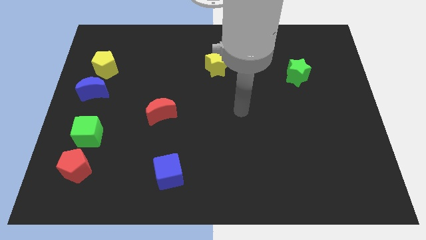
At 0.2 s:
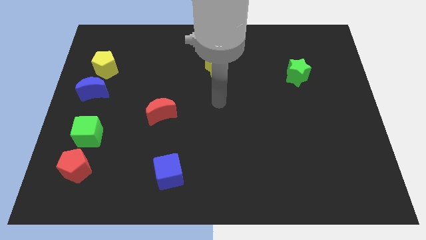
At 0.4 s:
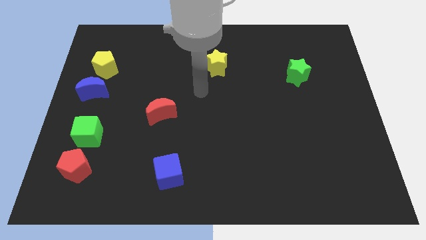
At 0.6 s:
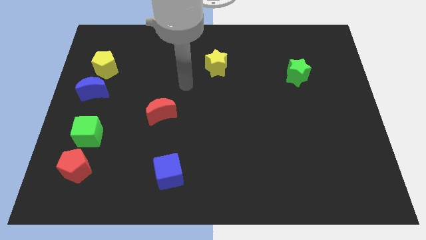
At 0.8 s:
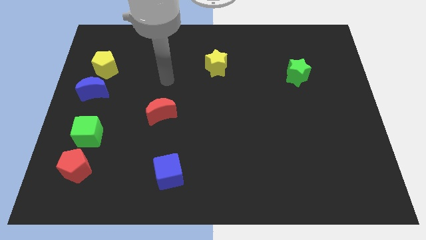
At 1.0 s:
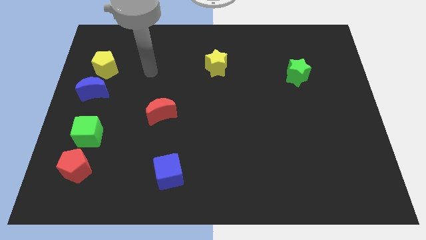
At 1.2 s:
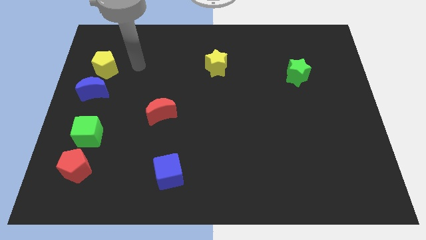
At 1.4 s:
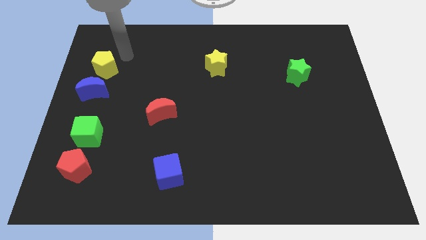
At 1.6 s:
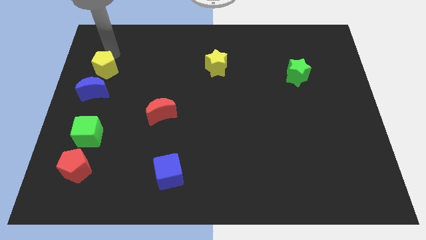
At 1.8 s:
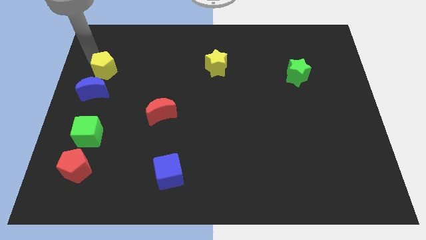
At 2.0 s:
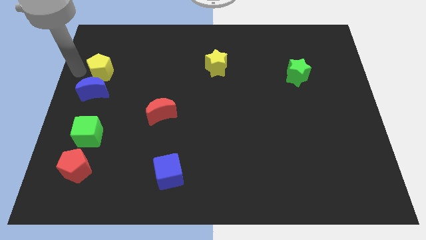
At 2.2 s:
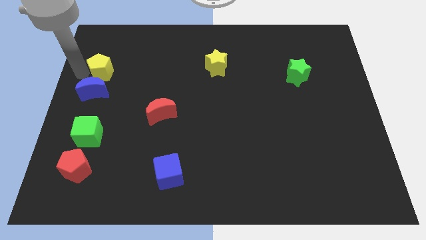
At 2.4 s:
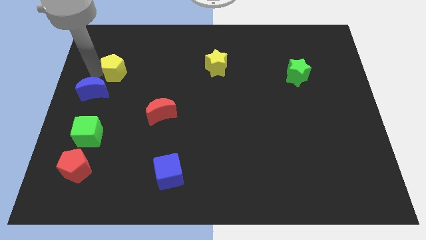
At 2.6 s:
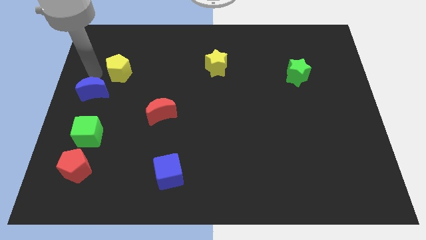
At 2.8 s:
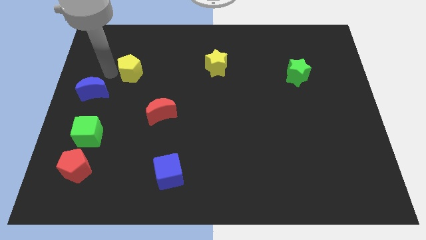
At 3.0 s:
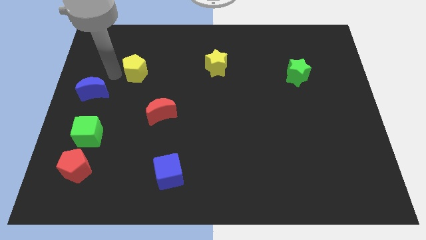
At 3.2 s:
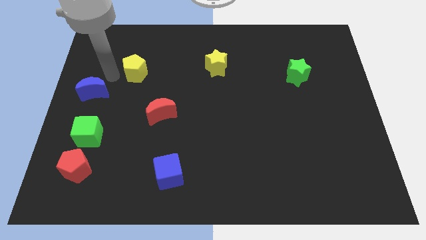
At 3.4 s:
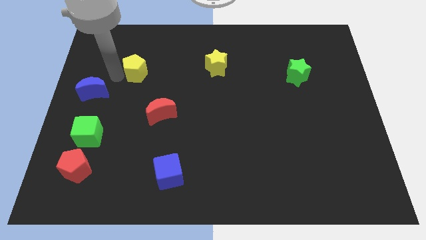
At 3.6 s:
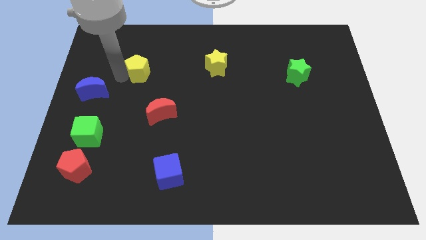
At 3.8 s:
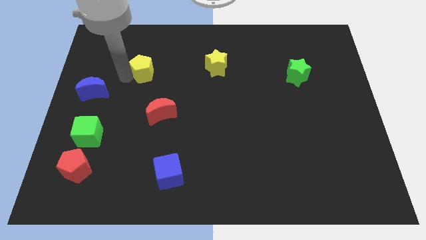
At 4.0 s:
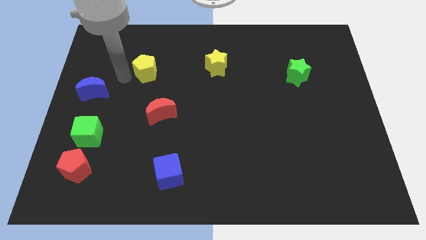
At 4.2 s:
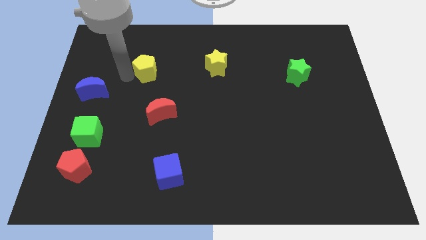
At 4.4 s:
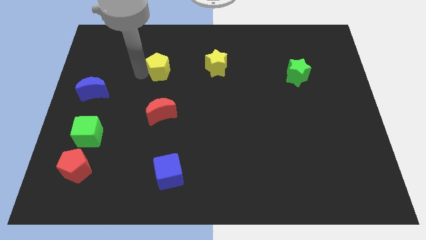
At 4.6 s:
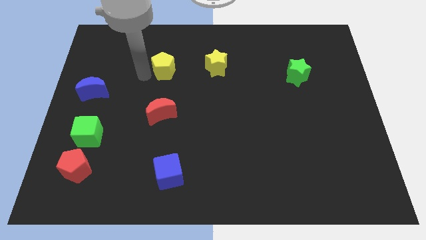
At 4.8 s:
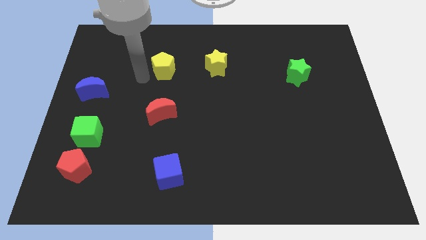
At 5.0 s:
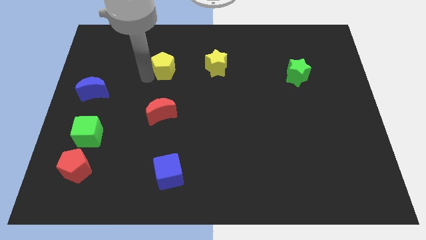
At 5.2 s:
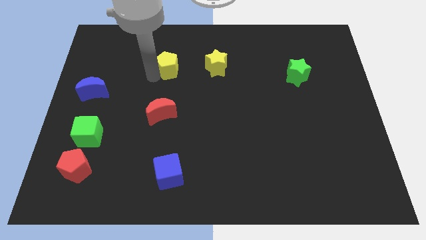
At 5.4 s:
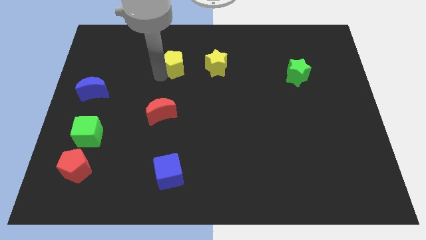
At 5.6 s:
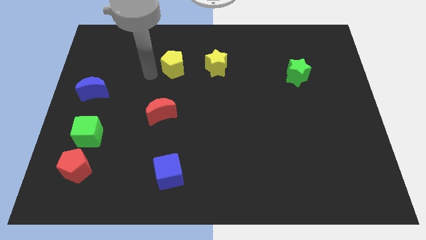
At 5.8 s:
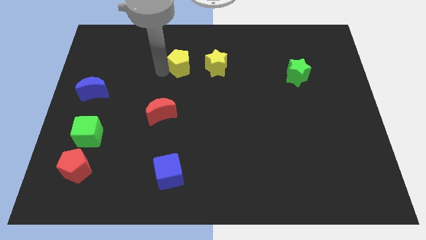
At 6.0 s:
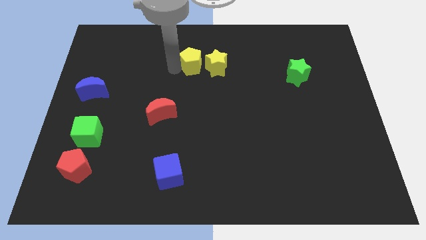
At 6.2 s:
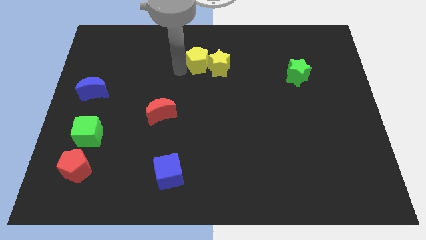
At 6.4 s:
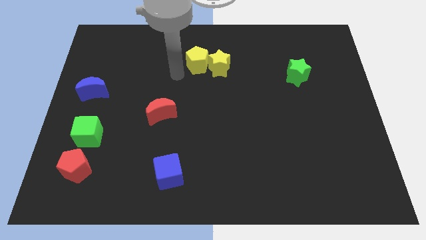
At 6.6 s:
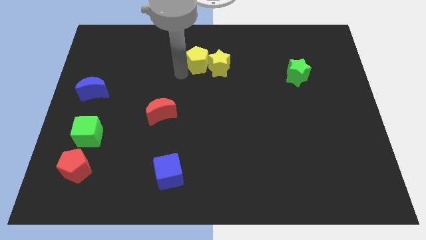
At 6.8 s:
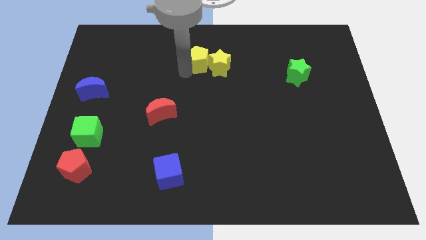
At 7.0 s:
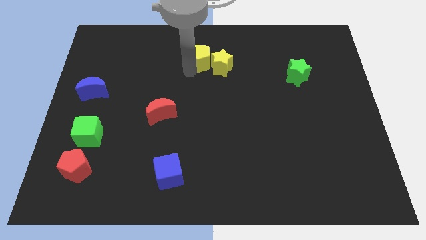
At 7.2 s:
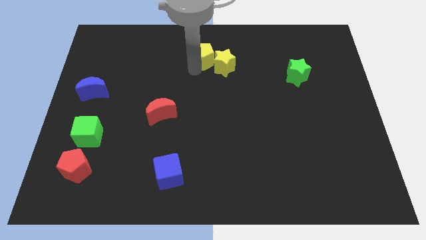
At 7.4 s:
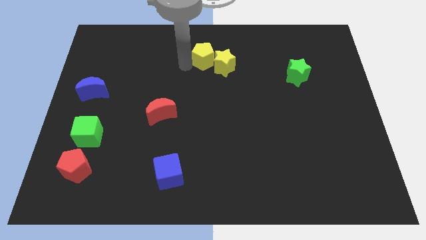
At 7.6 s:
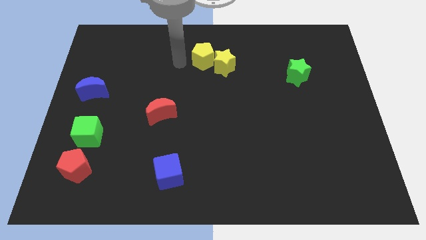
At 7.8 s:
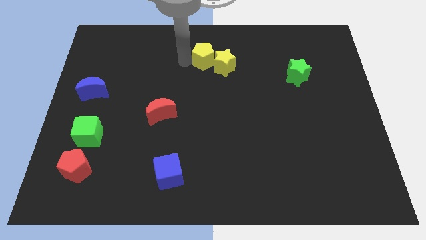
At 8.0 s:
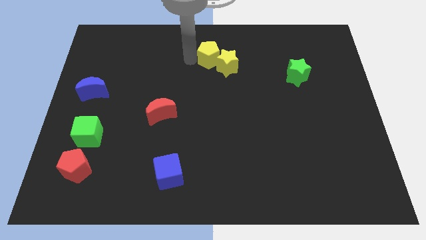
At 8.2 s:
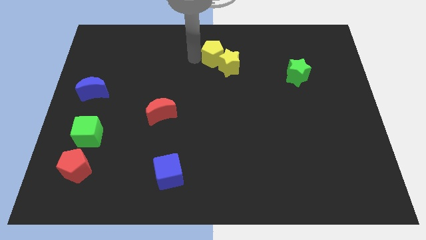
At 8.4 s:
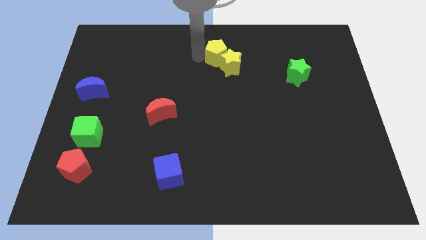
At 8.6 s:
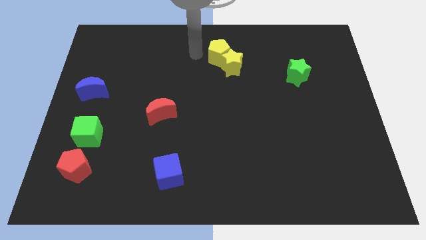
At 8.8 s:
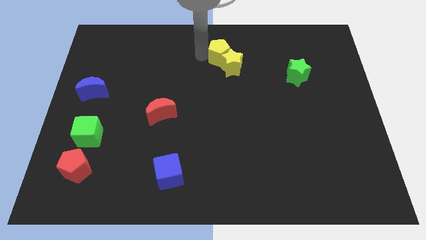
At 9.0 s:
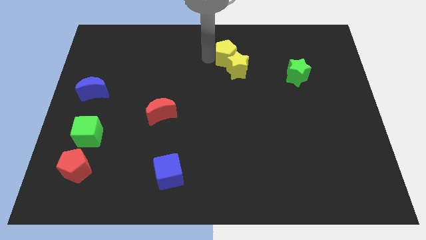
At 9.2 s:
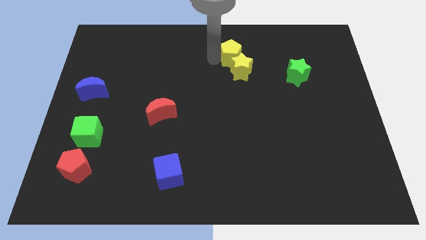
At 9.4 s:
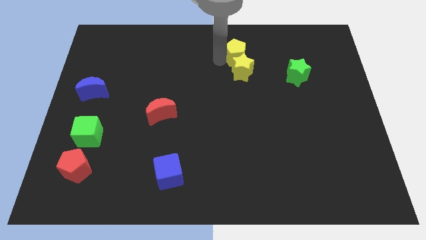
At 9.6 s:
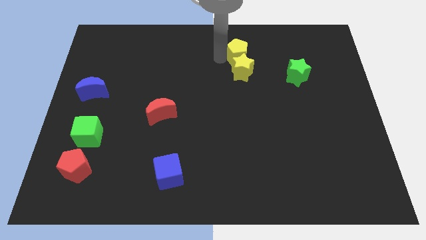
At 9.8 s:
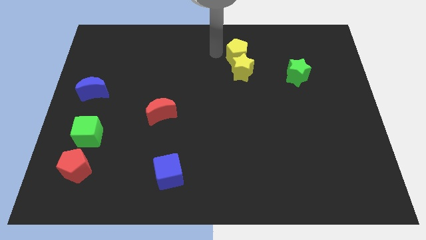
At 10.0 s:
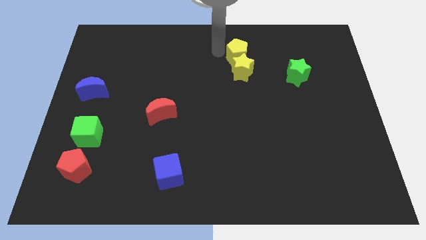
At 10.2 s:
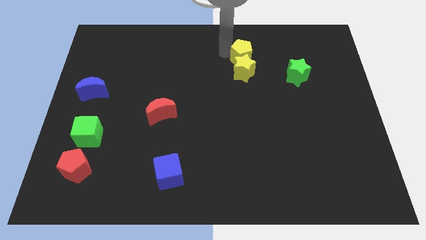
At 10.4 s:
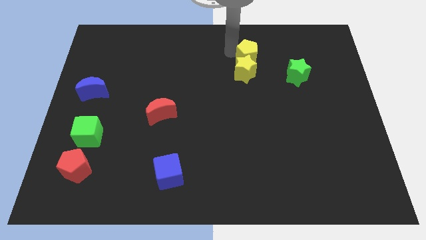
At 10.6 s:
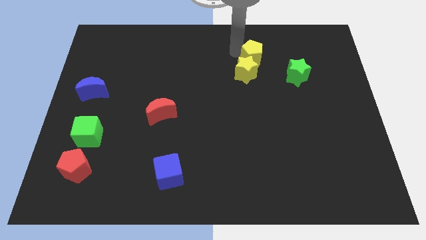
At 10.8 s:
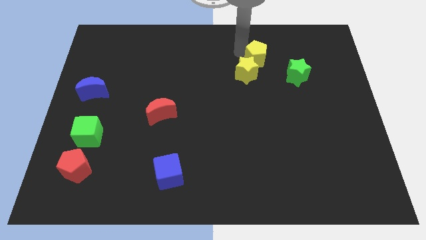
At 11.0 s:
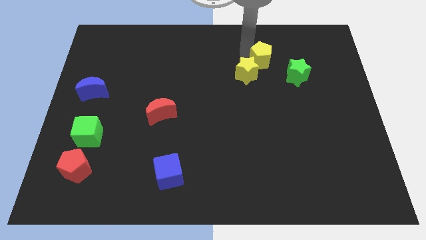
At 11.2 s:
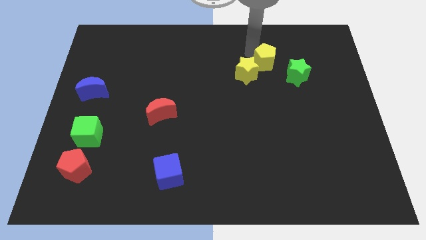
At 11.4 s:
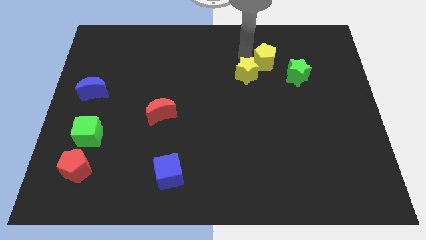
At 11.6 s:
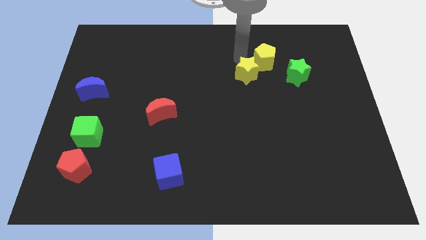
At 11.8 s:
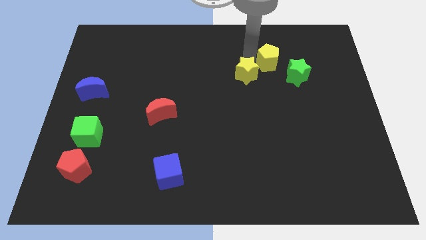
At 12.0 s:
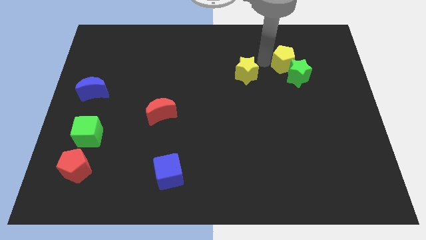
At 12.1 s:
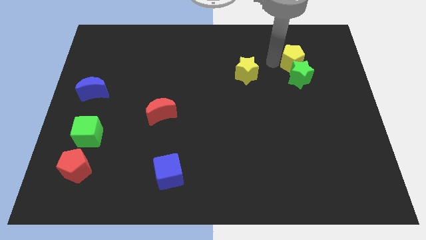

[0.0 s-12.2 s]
slide the yellow pentagon diagonally up and to the right of the green star
